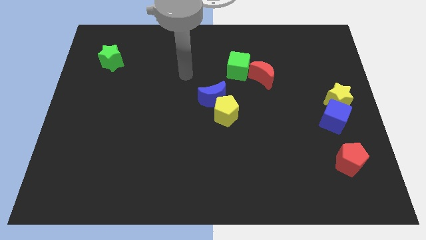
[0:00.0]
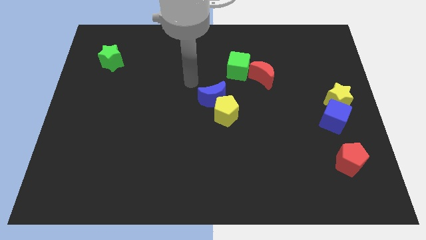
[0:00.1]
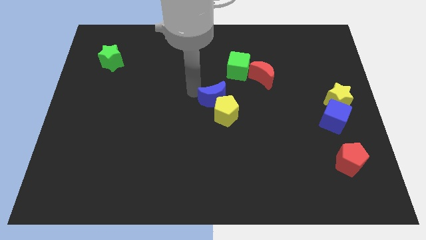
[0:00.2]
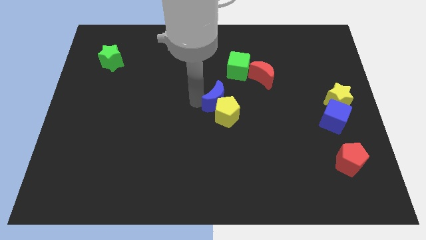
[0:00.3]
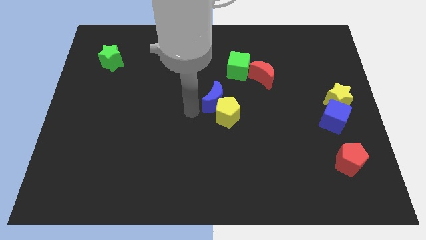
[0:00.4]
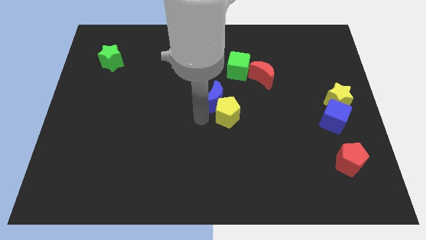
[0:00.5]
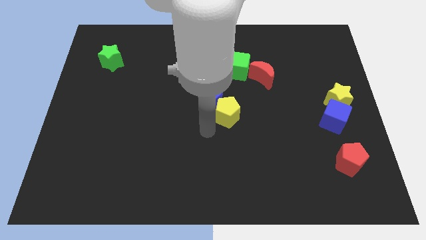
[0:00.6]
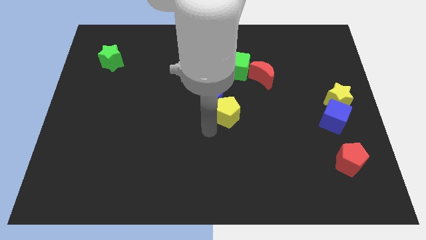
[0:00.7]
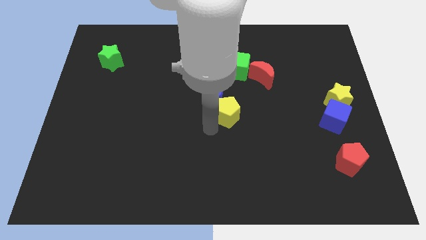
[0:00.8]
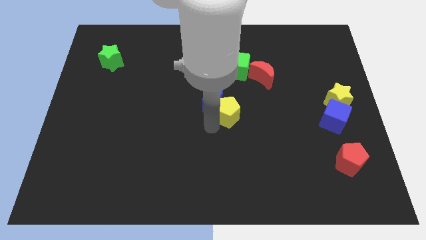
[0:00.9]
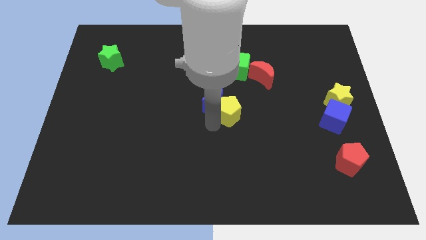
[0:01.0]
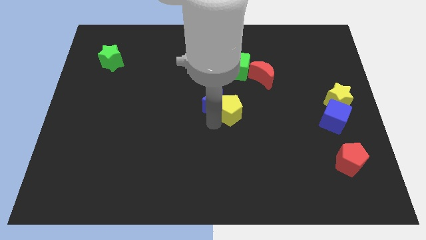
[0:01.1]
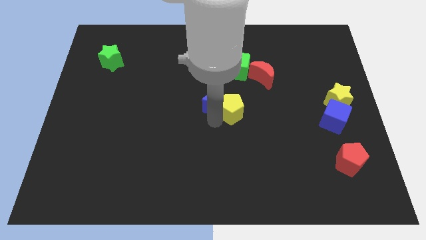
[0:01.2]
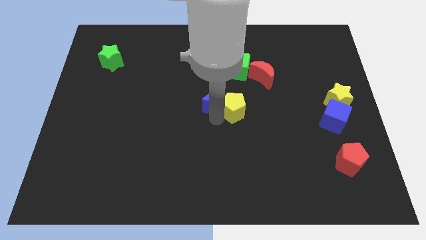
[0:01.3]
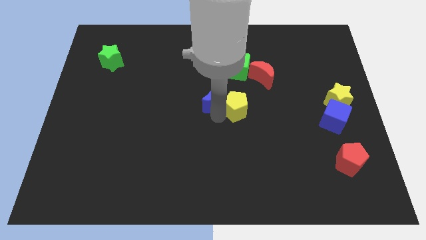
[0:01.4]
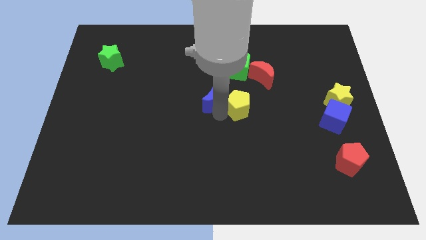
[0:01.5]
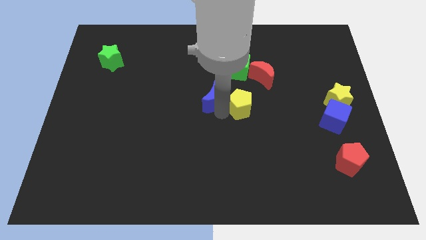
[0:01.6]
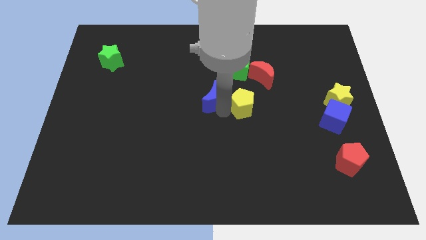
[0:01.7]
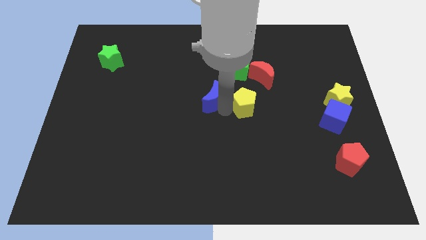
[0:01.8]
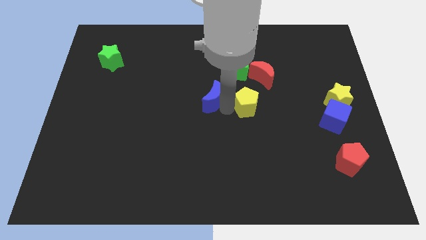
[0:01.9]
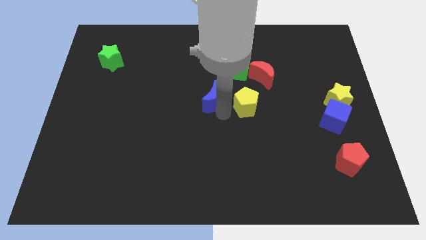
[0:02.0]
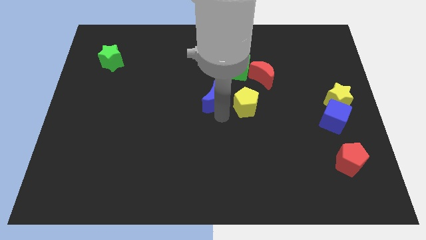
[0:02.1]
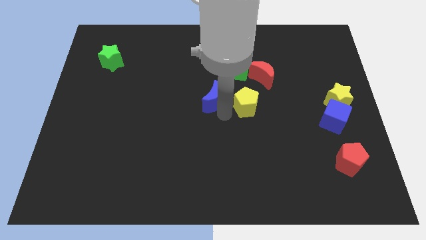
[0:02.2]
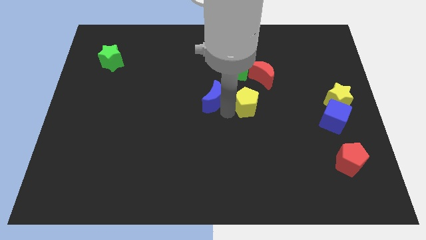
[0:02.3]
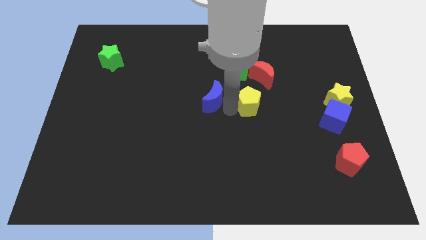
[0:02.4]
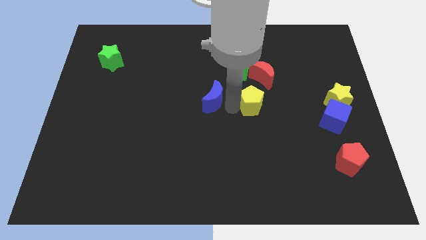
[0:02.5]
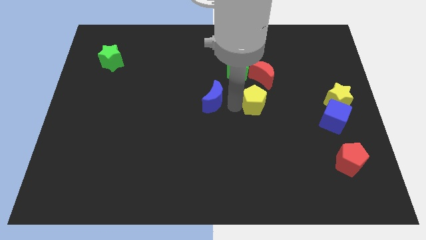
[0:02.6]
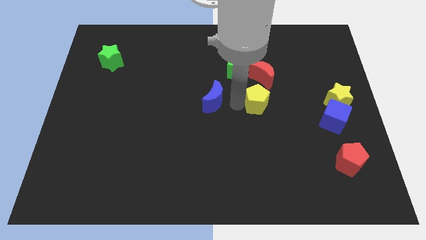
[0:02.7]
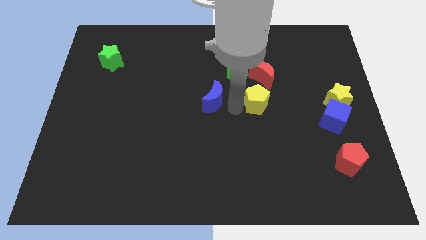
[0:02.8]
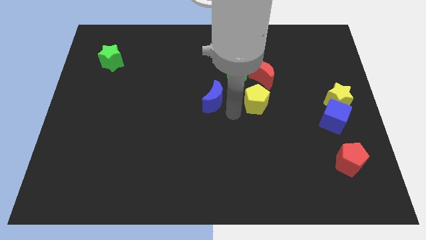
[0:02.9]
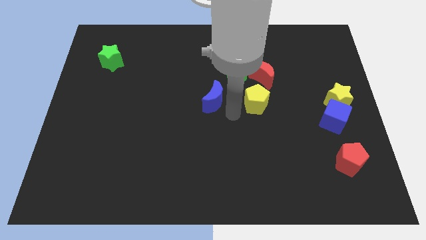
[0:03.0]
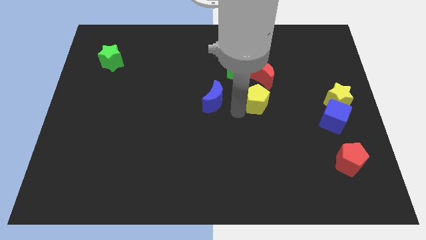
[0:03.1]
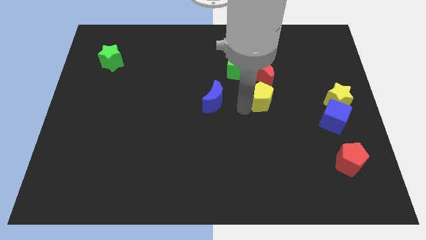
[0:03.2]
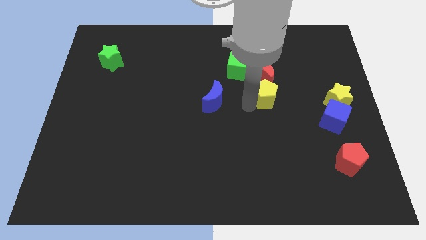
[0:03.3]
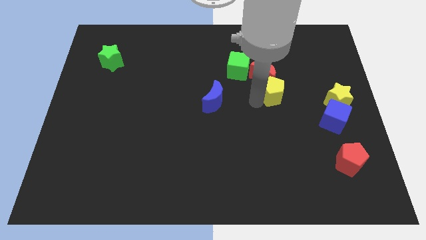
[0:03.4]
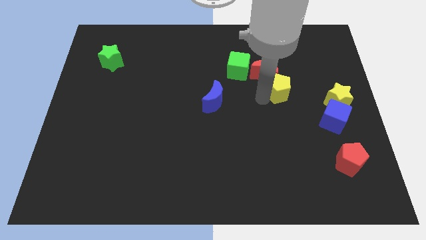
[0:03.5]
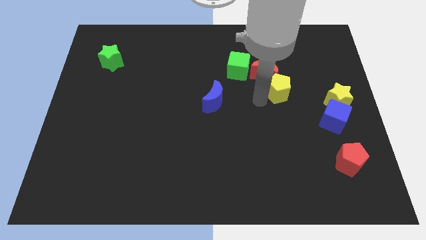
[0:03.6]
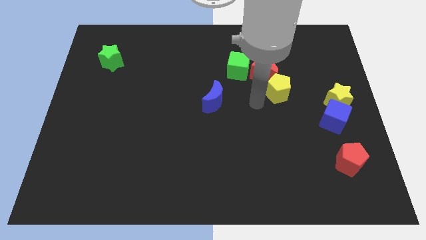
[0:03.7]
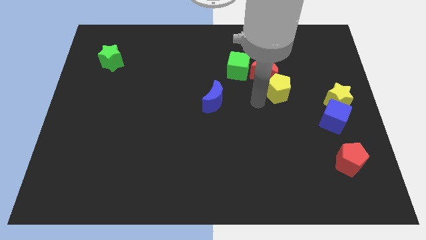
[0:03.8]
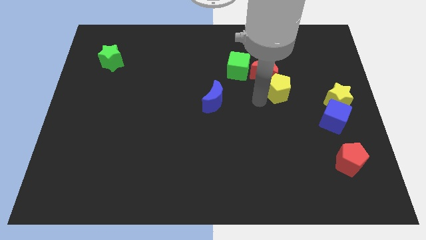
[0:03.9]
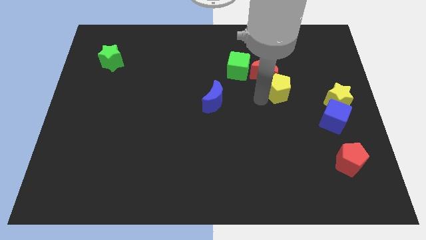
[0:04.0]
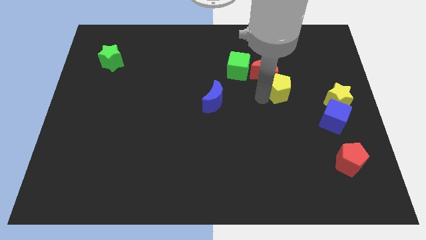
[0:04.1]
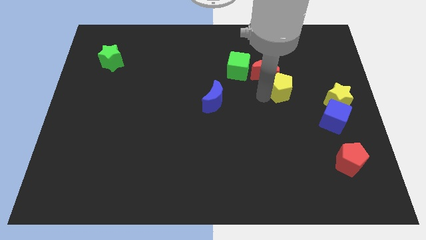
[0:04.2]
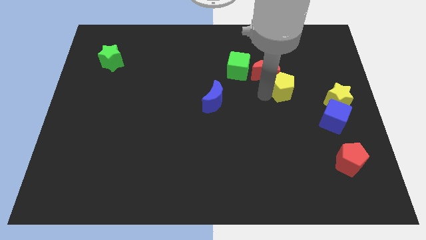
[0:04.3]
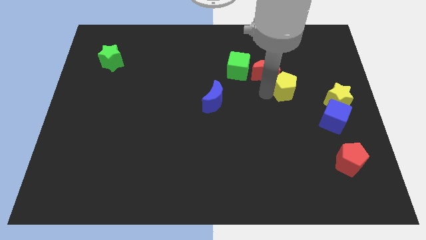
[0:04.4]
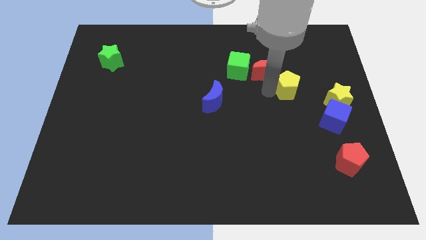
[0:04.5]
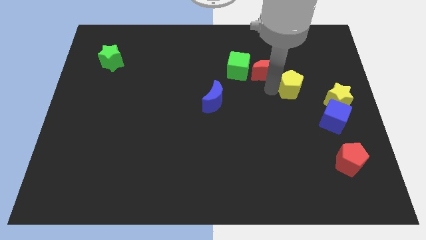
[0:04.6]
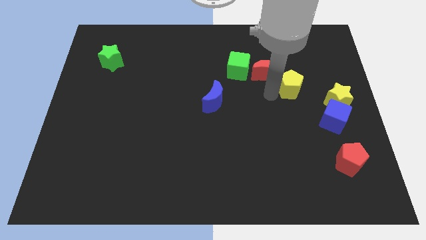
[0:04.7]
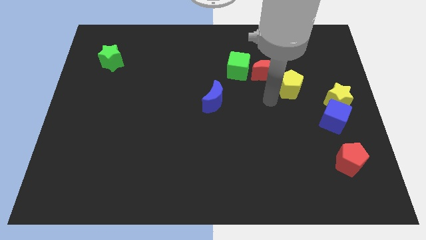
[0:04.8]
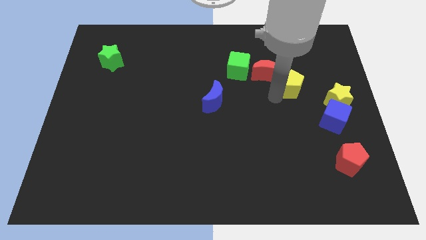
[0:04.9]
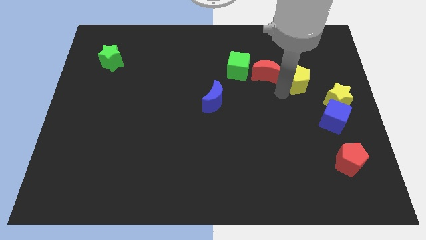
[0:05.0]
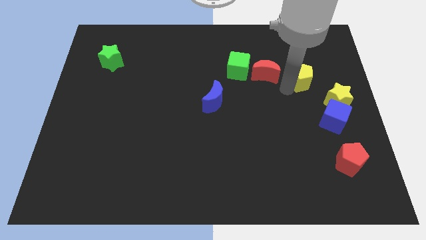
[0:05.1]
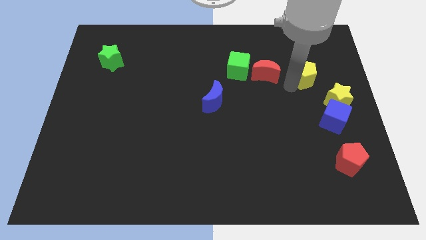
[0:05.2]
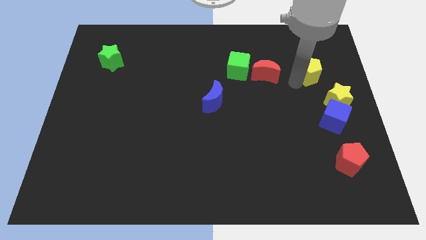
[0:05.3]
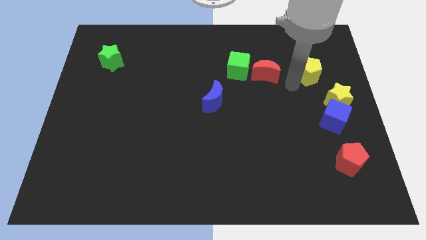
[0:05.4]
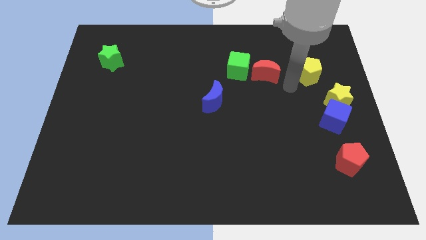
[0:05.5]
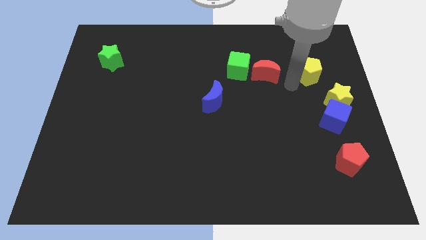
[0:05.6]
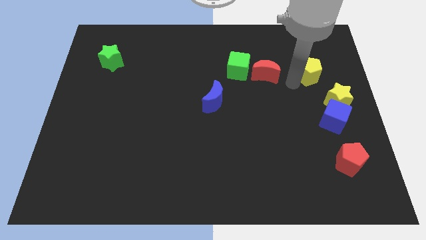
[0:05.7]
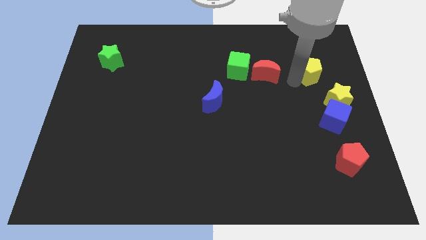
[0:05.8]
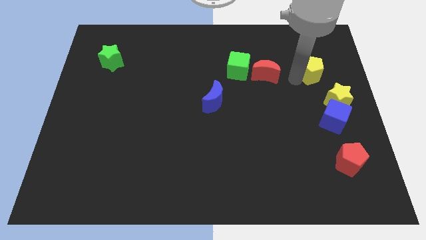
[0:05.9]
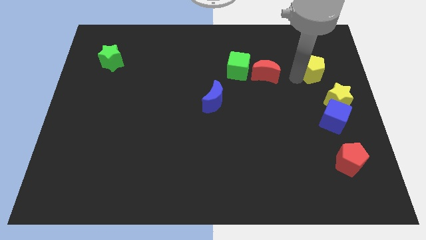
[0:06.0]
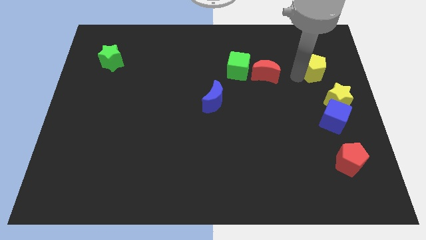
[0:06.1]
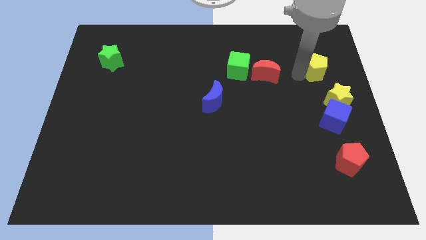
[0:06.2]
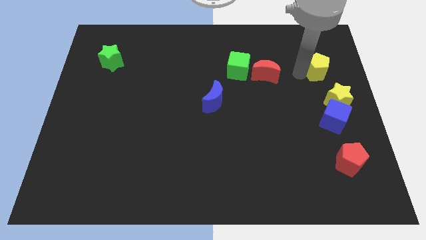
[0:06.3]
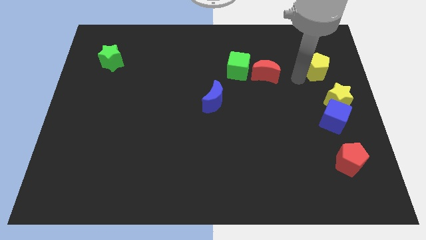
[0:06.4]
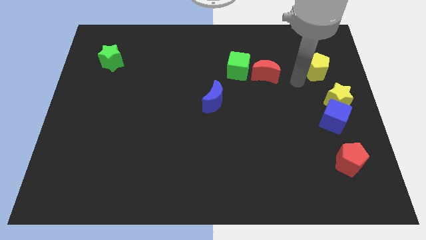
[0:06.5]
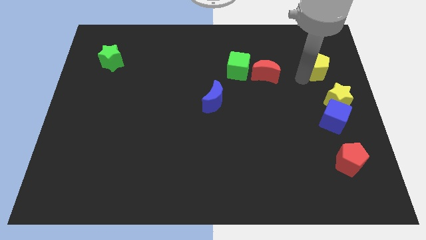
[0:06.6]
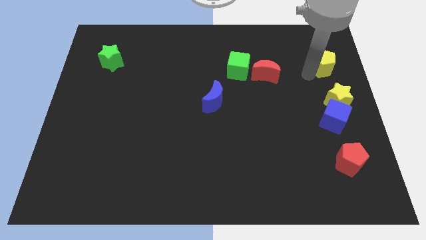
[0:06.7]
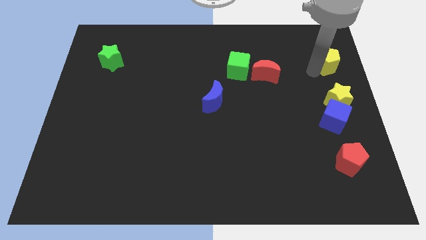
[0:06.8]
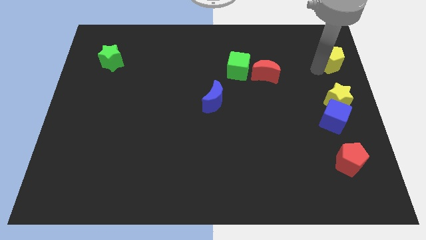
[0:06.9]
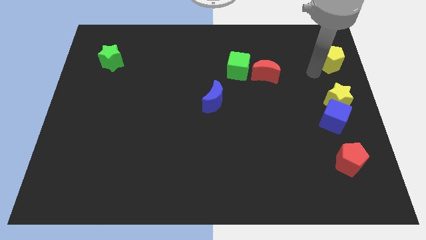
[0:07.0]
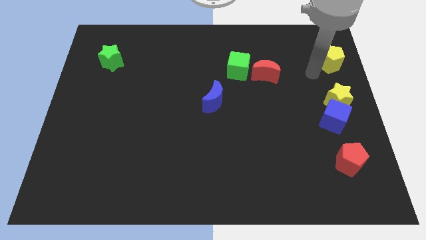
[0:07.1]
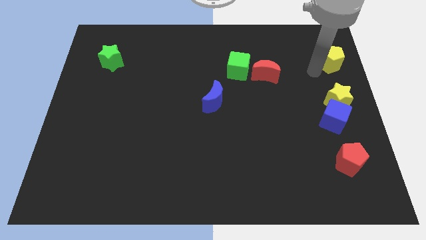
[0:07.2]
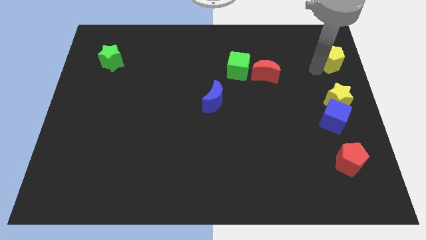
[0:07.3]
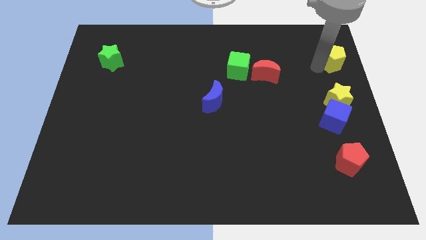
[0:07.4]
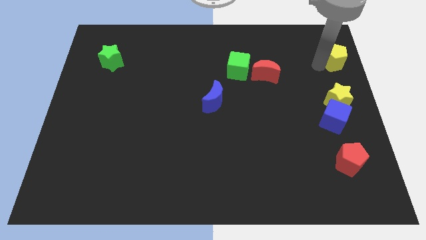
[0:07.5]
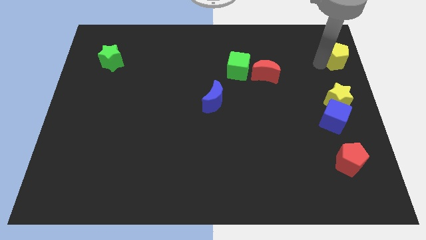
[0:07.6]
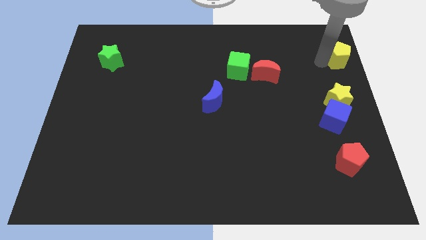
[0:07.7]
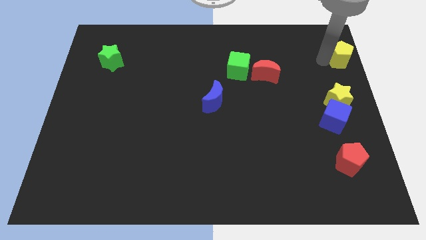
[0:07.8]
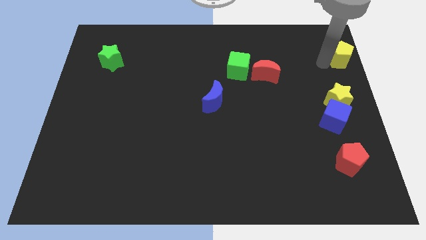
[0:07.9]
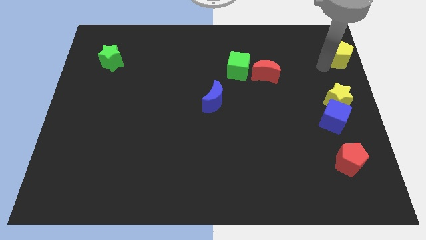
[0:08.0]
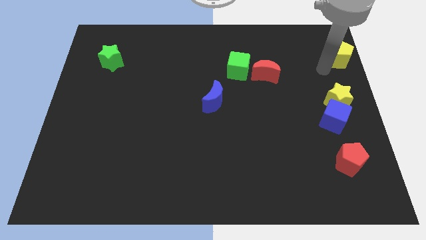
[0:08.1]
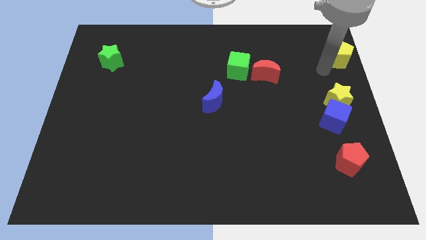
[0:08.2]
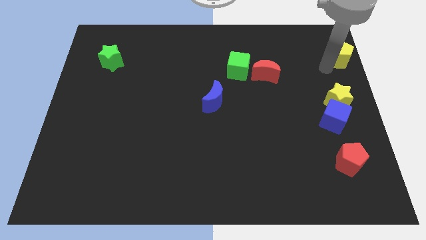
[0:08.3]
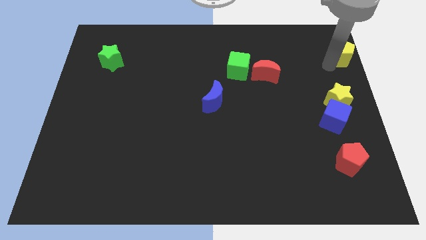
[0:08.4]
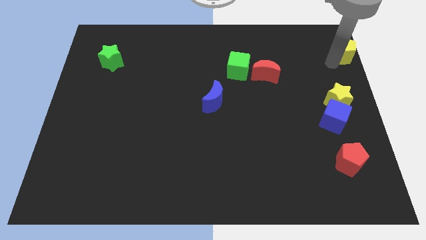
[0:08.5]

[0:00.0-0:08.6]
push the yellow pentagon to the top right of the board
